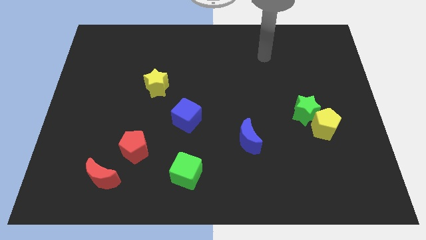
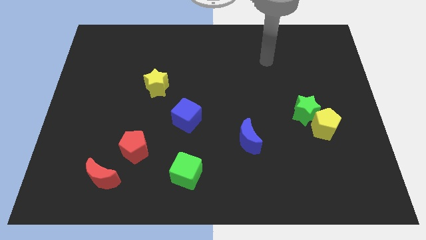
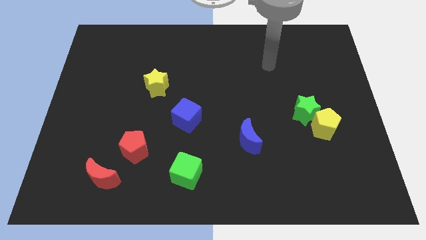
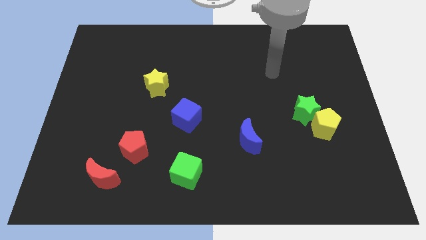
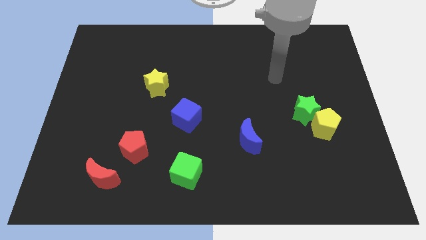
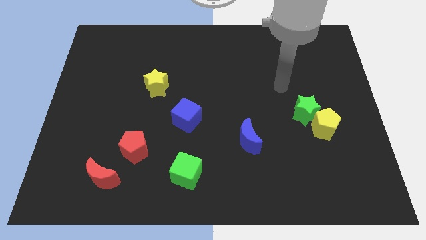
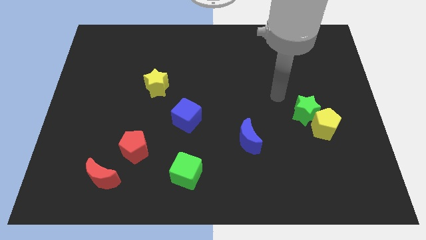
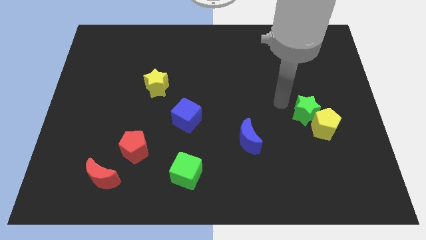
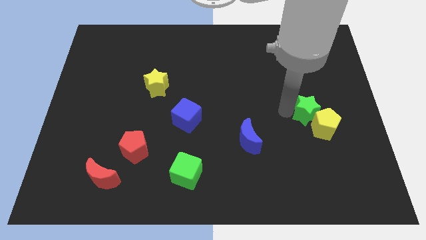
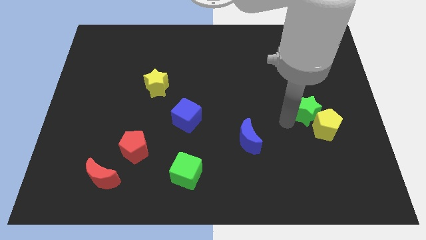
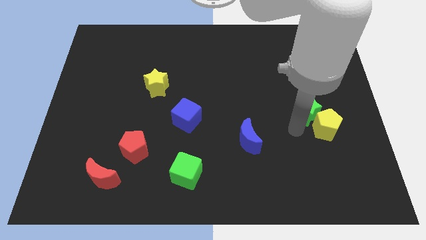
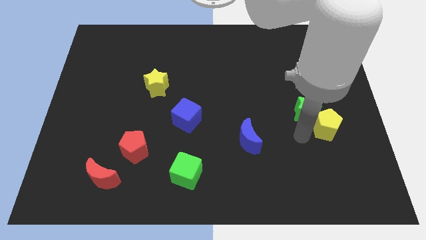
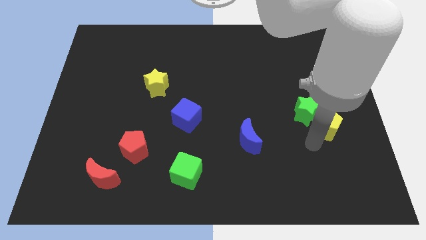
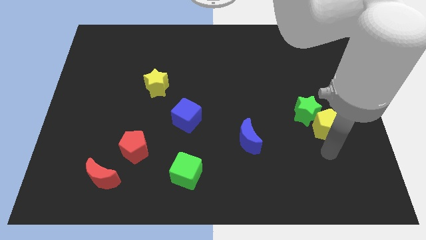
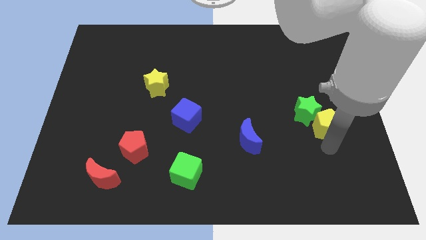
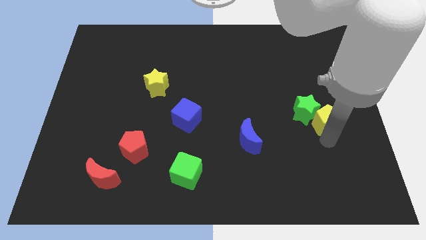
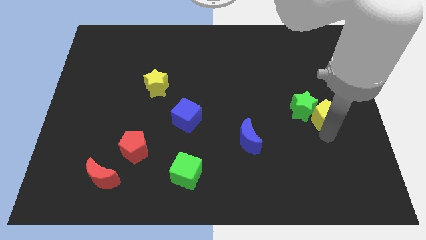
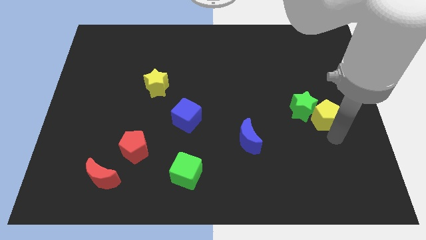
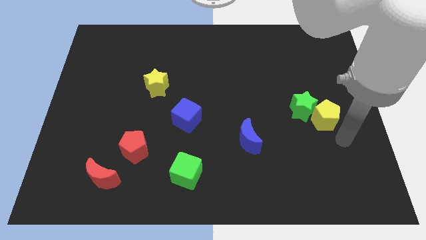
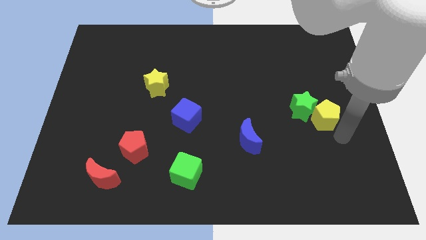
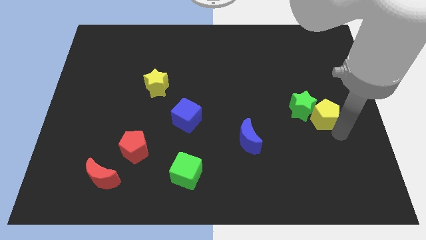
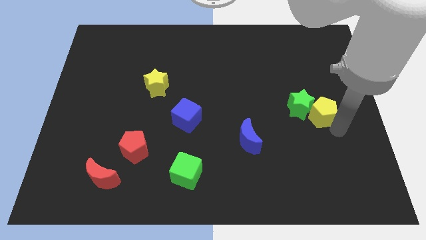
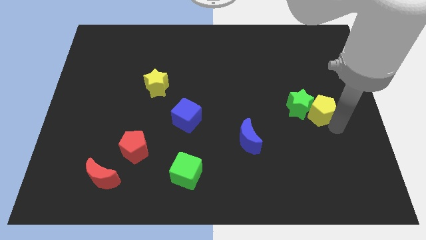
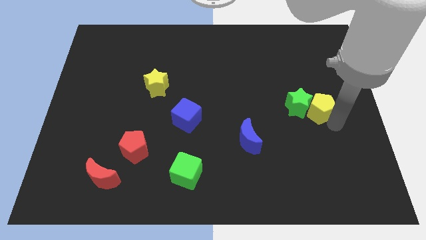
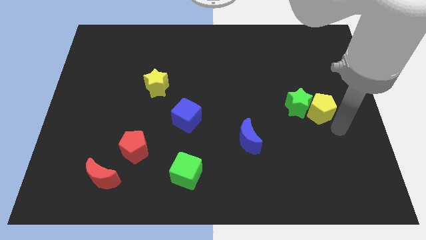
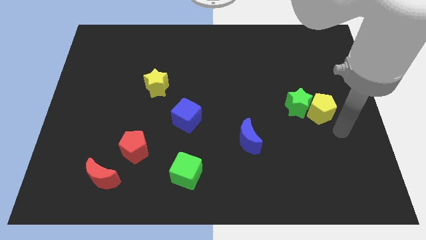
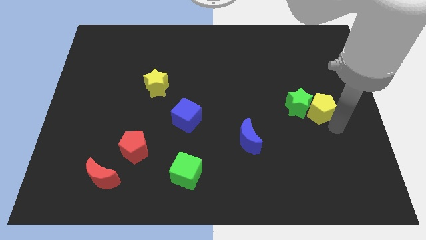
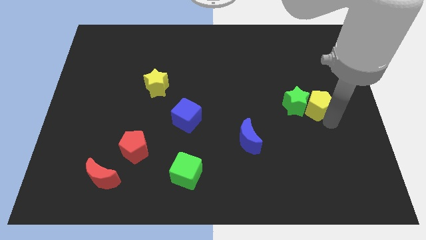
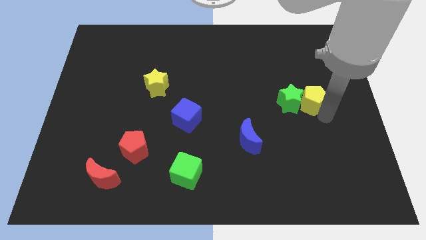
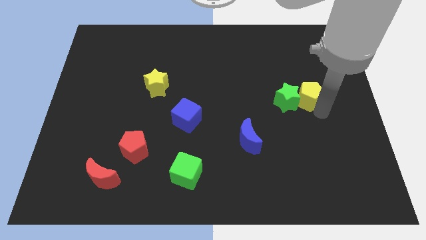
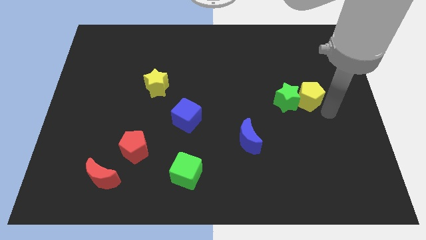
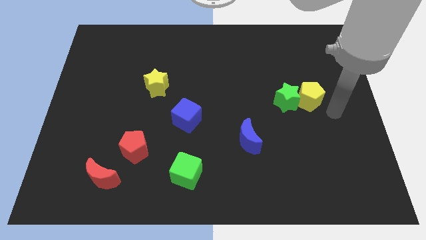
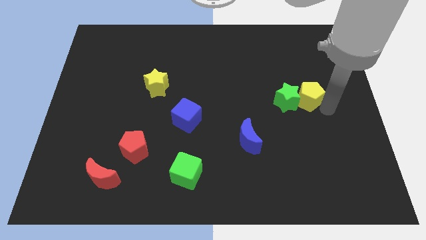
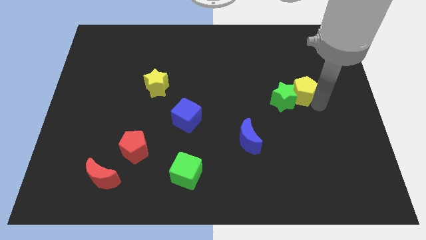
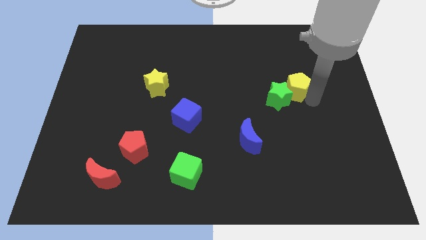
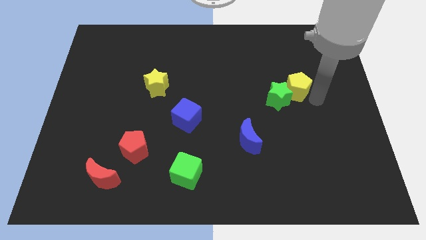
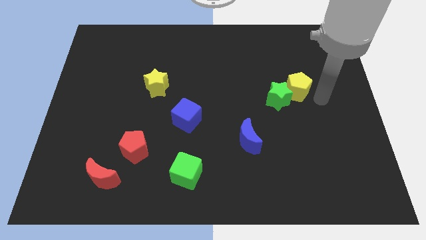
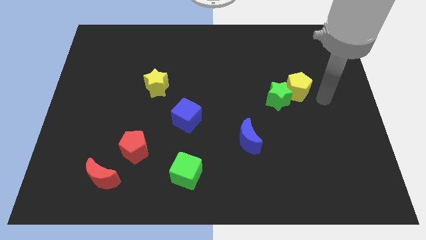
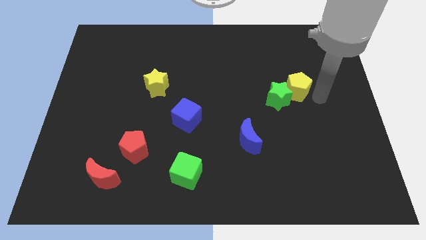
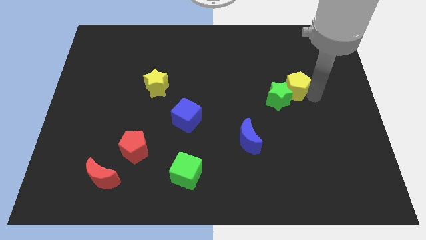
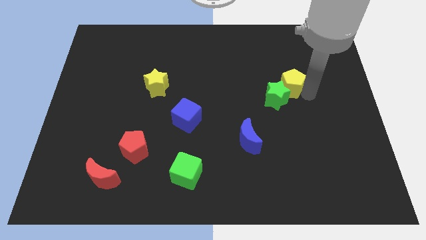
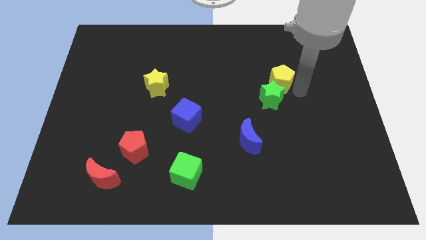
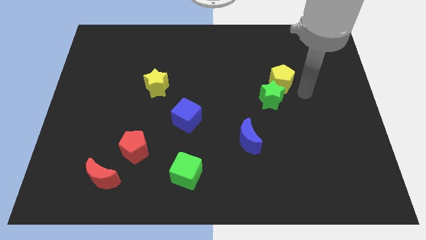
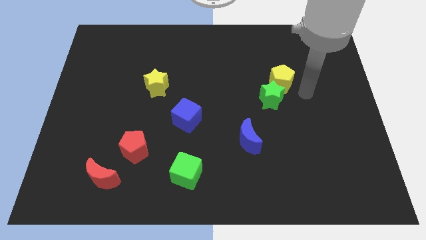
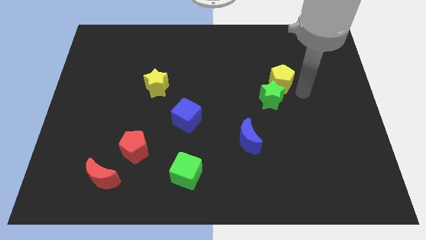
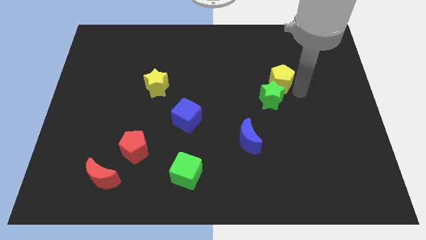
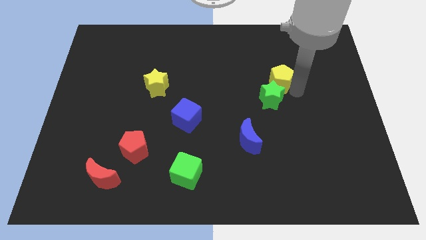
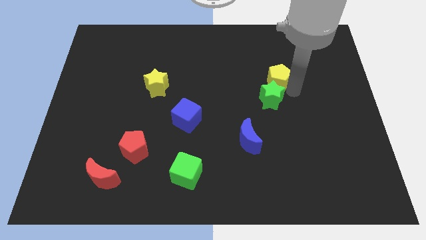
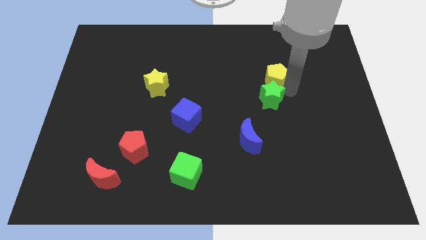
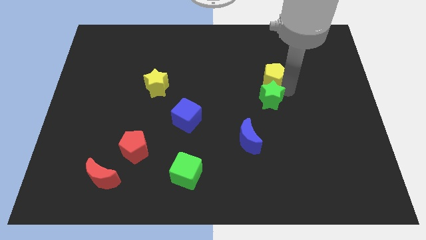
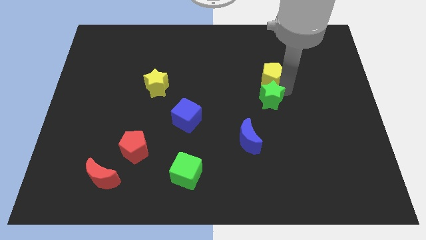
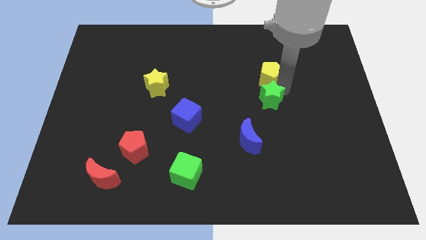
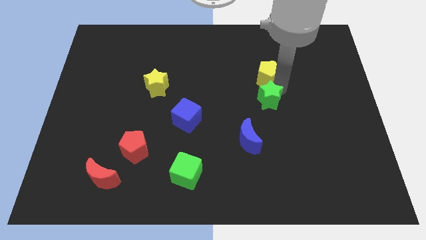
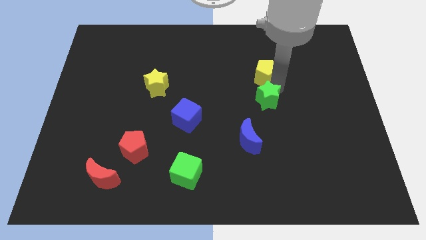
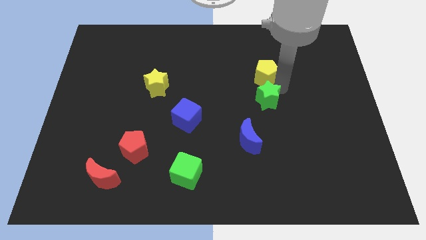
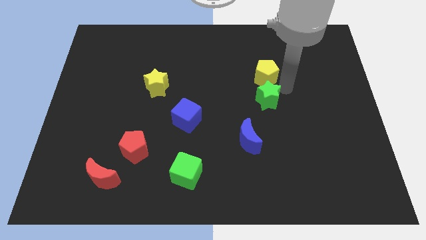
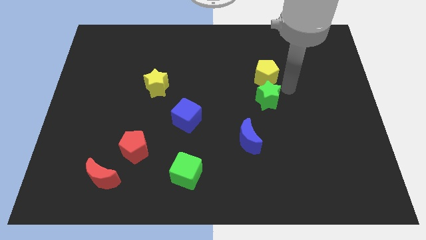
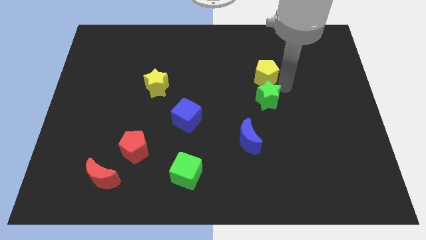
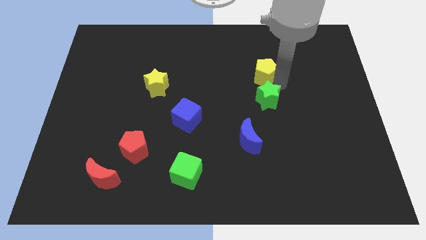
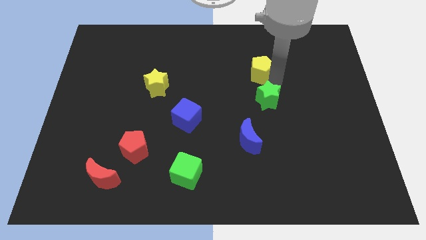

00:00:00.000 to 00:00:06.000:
move the yellow pentagon diagonally up and left

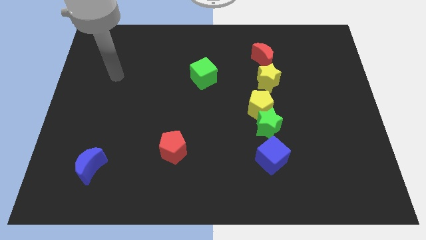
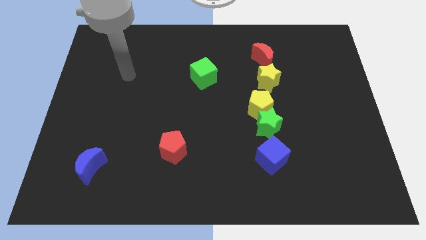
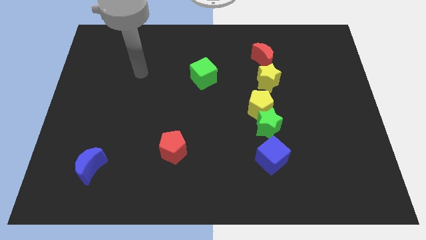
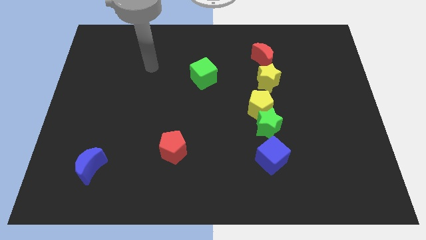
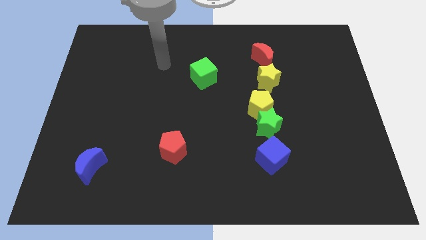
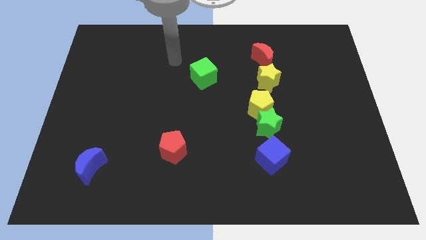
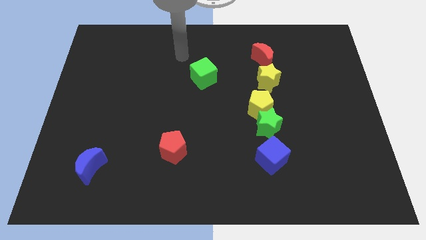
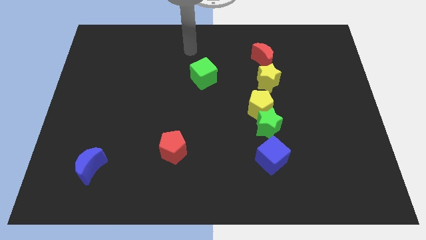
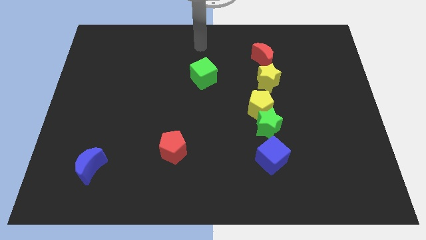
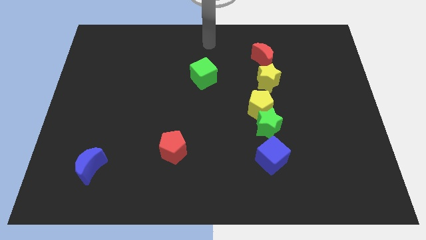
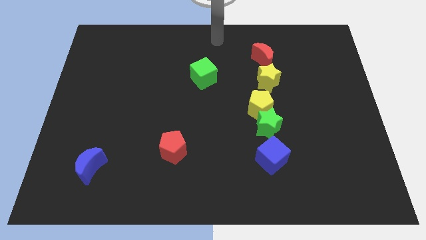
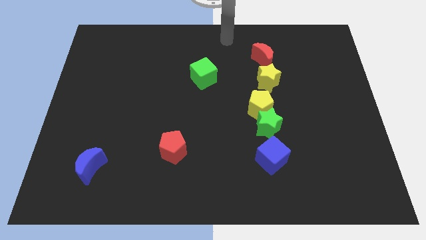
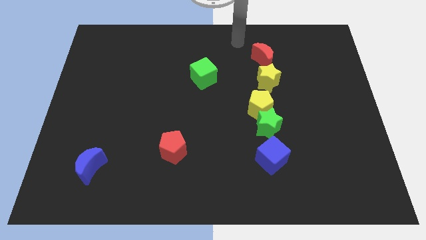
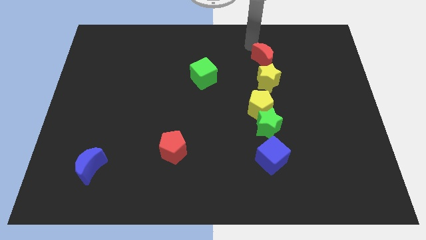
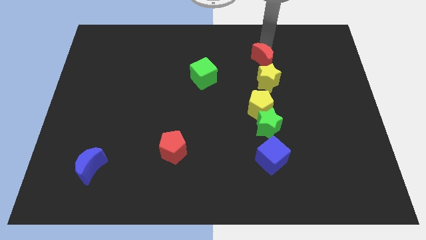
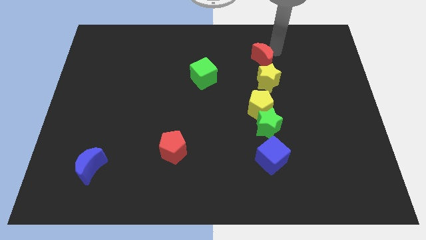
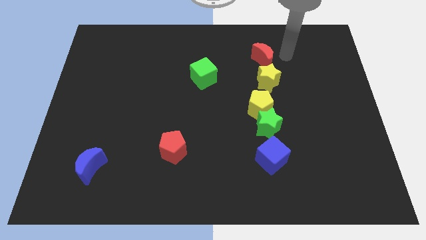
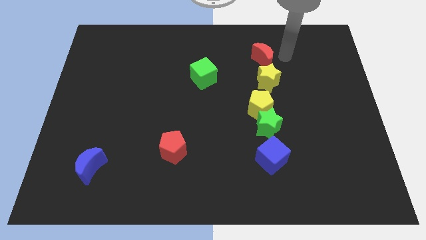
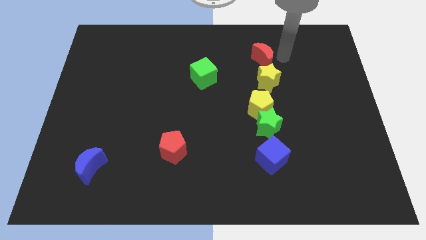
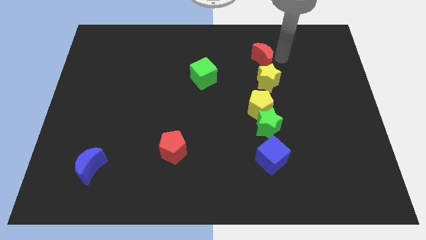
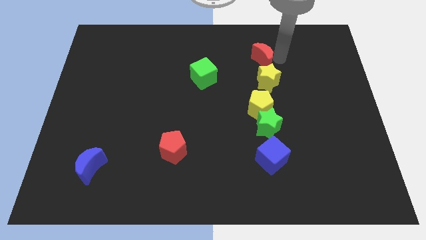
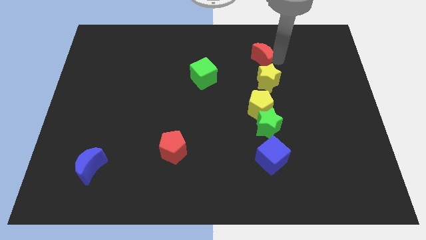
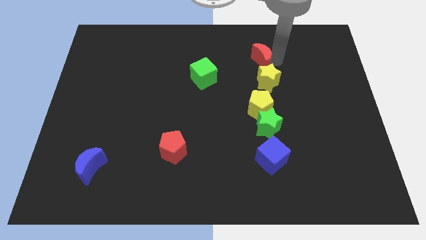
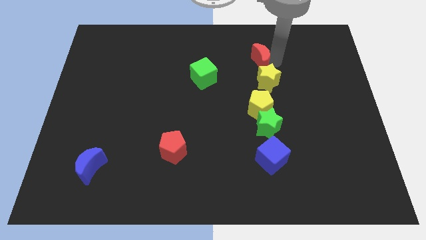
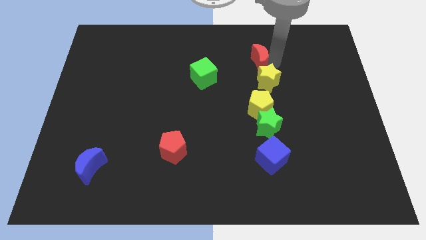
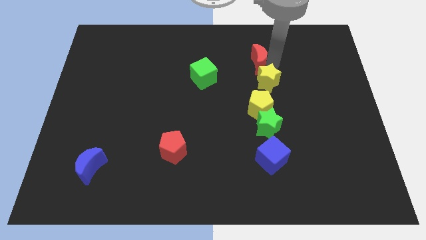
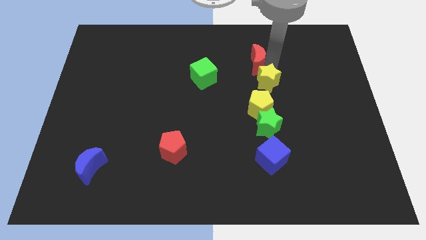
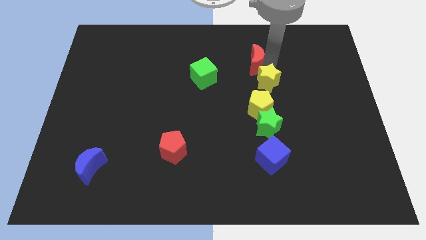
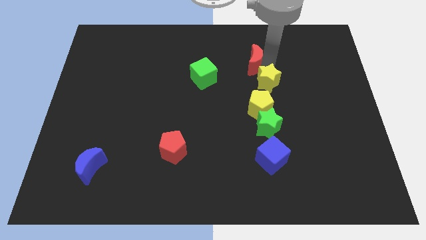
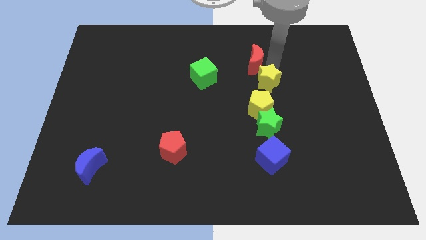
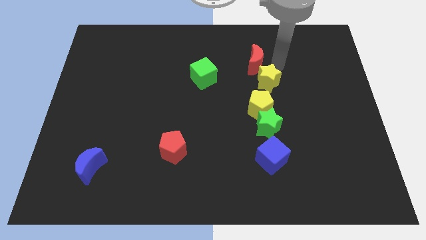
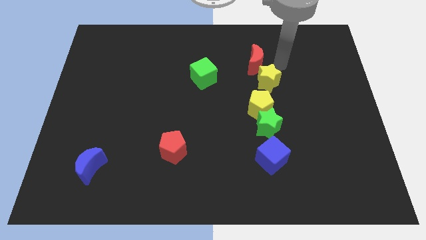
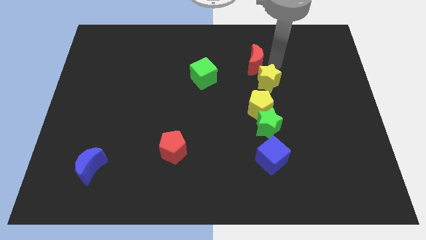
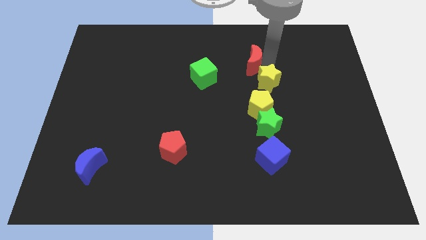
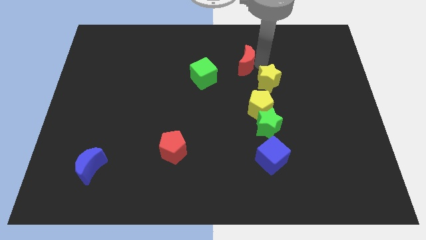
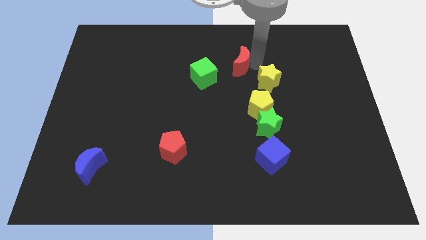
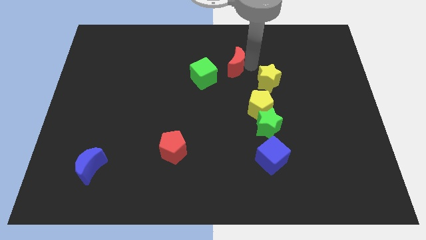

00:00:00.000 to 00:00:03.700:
slightly move the red moon left
